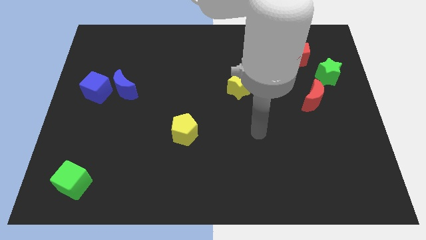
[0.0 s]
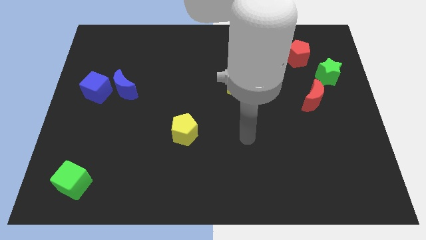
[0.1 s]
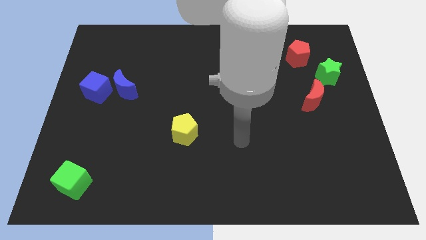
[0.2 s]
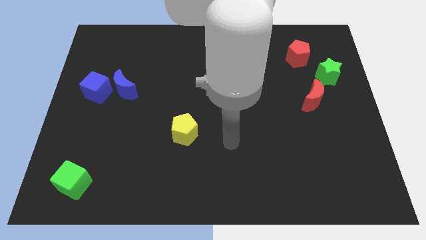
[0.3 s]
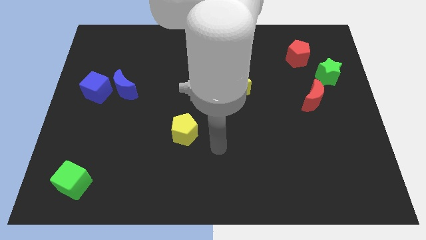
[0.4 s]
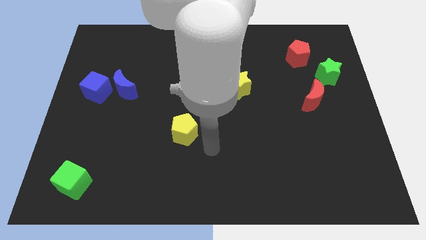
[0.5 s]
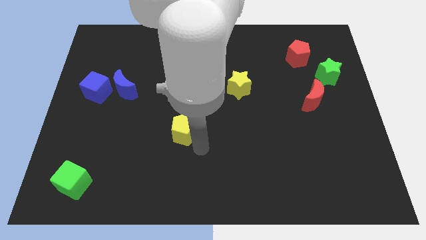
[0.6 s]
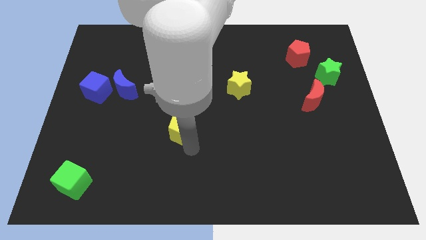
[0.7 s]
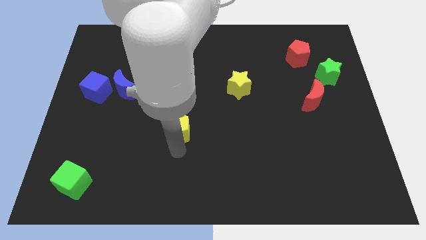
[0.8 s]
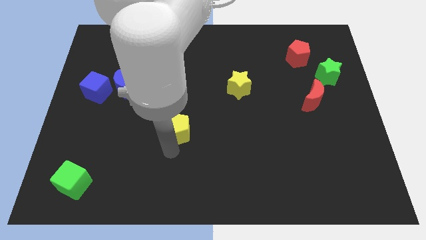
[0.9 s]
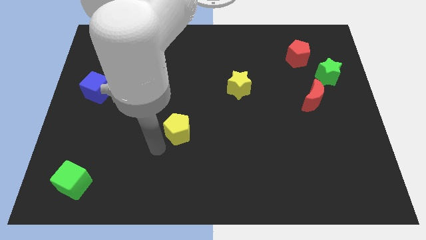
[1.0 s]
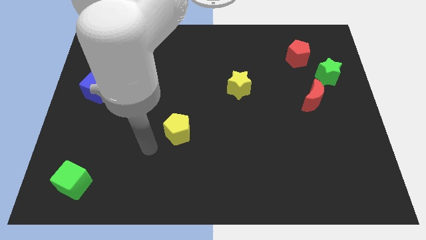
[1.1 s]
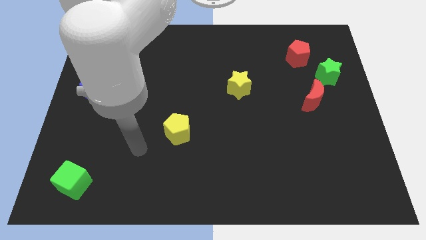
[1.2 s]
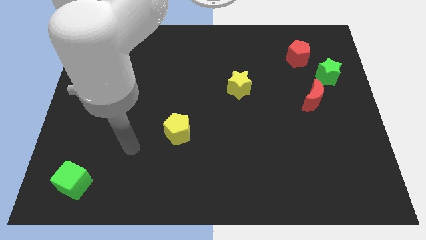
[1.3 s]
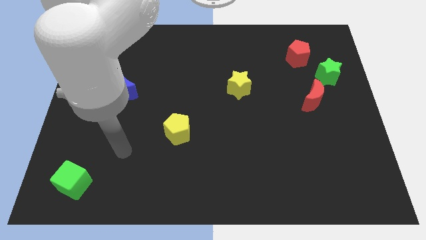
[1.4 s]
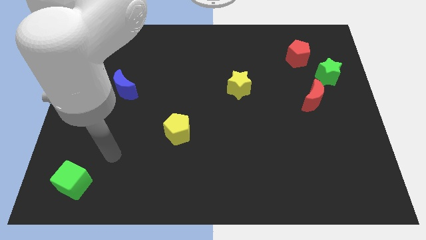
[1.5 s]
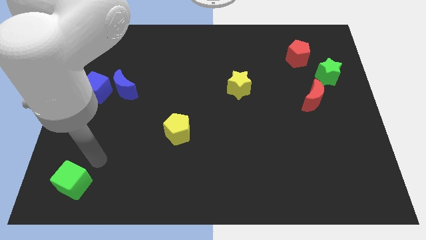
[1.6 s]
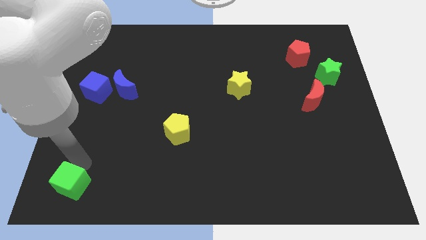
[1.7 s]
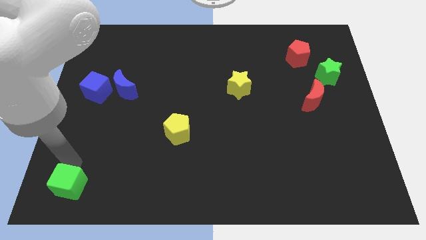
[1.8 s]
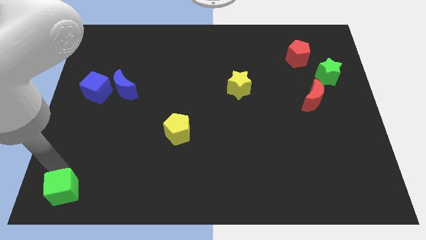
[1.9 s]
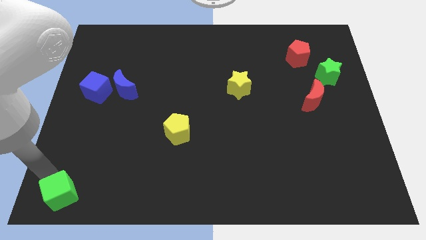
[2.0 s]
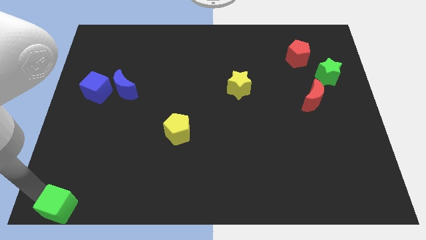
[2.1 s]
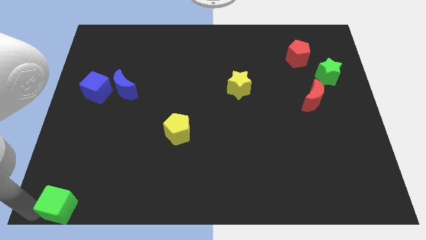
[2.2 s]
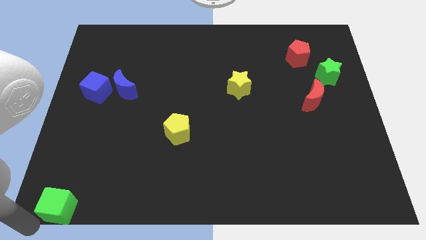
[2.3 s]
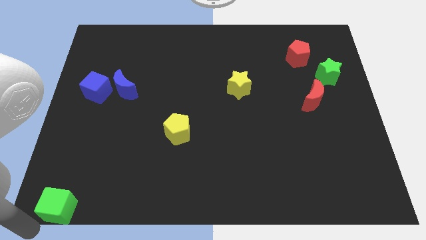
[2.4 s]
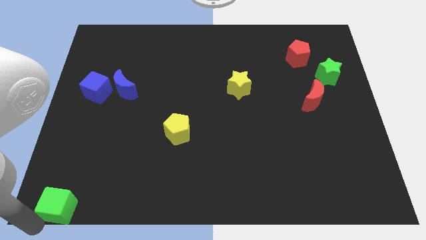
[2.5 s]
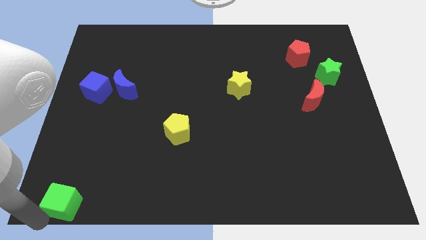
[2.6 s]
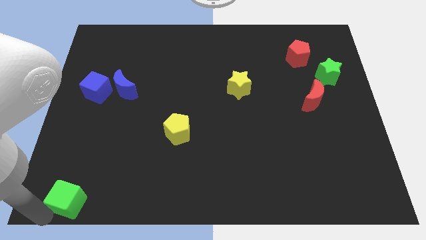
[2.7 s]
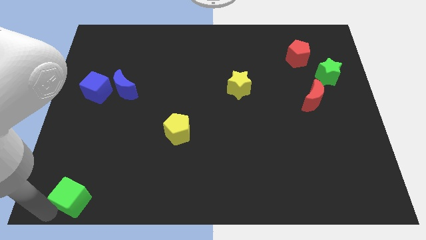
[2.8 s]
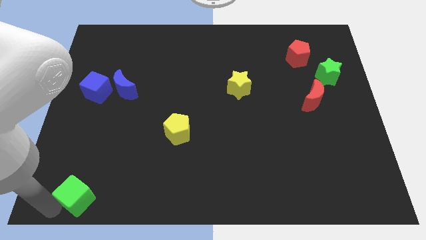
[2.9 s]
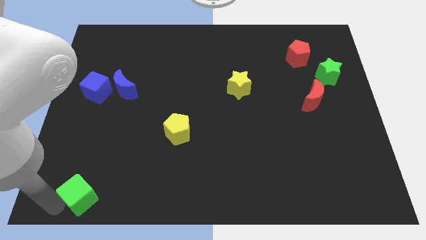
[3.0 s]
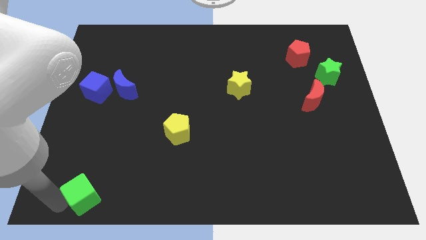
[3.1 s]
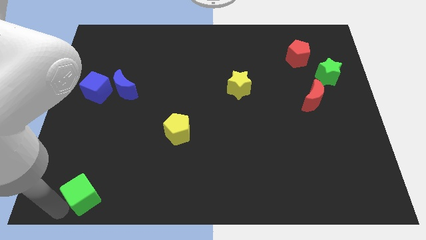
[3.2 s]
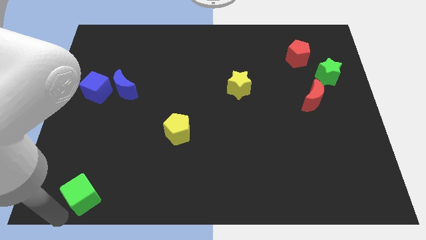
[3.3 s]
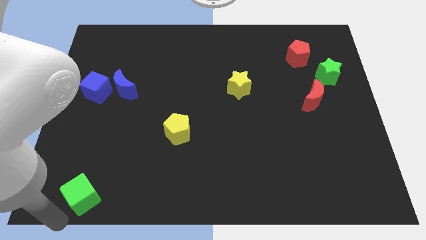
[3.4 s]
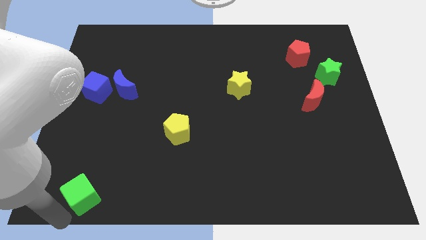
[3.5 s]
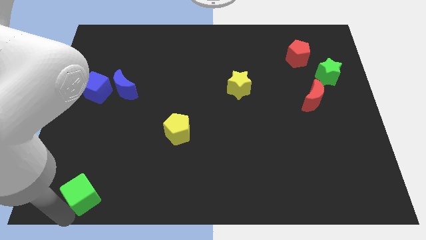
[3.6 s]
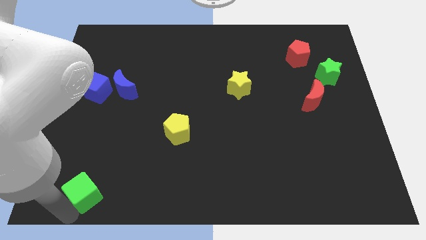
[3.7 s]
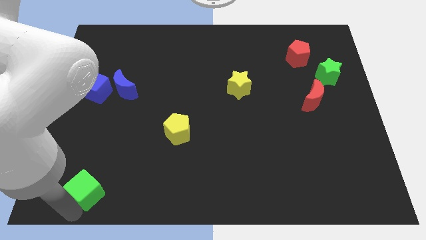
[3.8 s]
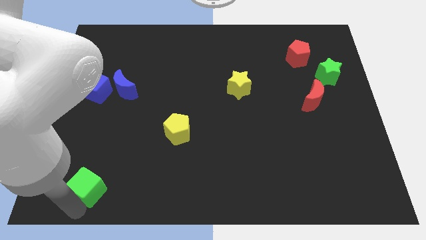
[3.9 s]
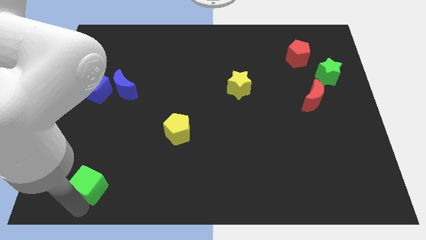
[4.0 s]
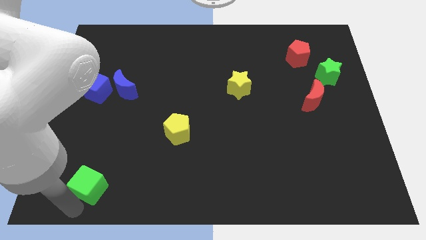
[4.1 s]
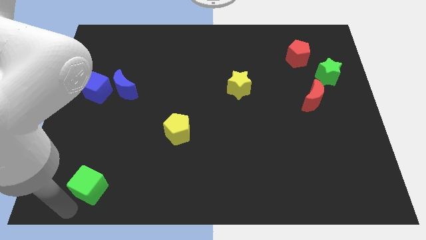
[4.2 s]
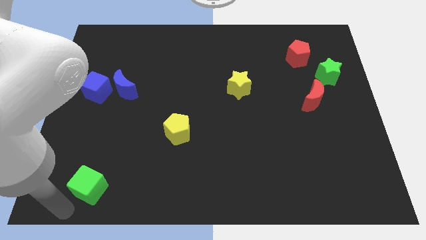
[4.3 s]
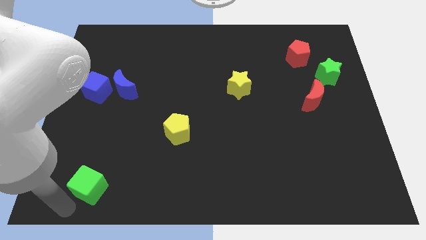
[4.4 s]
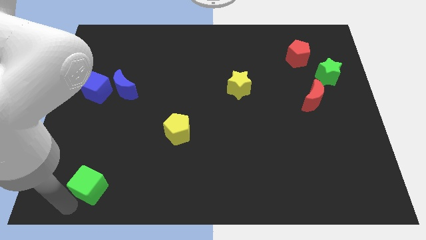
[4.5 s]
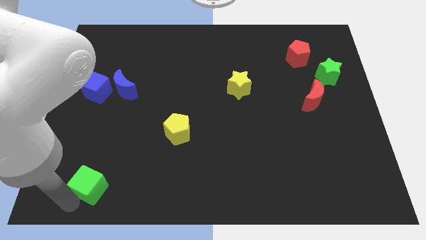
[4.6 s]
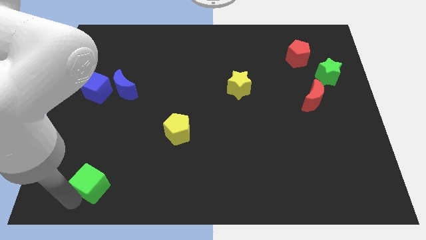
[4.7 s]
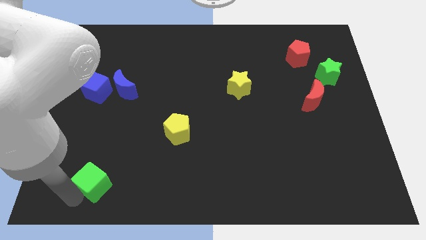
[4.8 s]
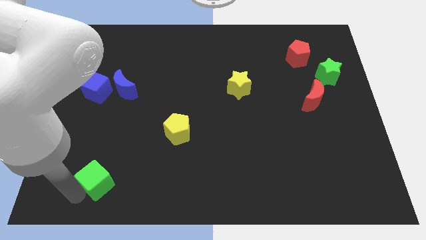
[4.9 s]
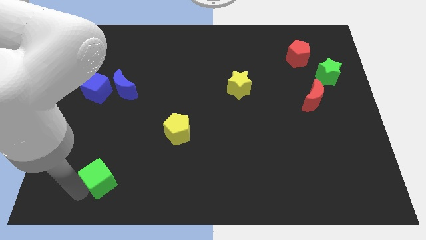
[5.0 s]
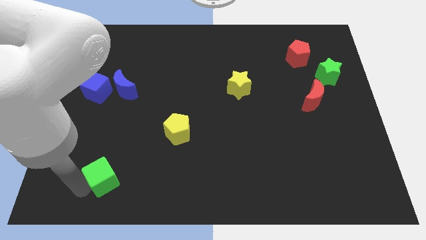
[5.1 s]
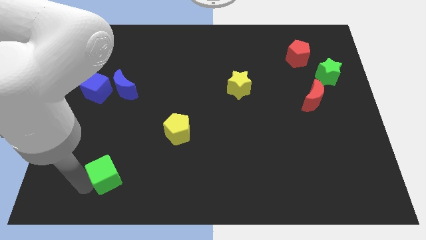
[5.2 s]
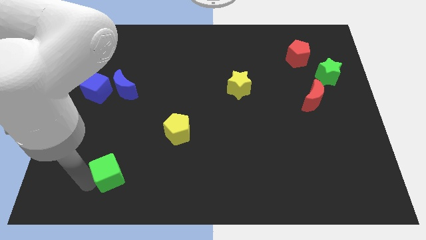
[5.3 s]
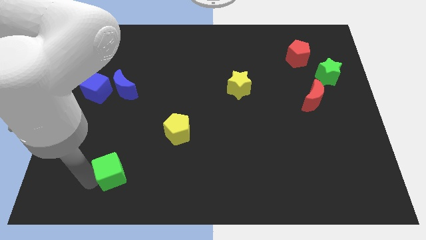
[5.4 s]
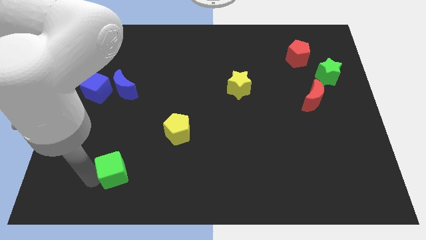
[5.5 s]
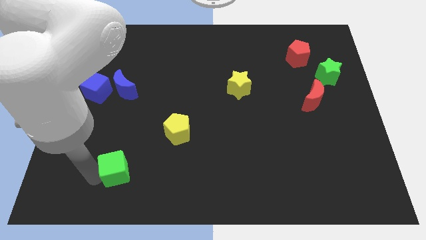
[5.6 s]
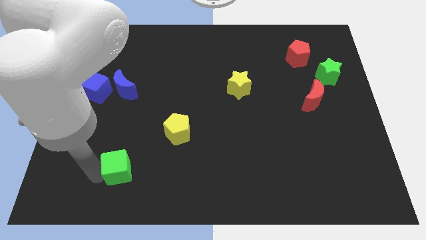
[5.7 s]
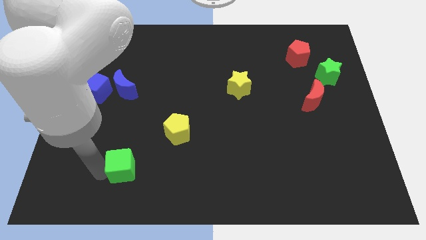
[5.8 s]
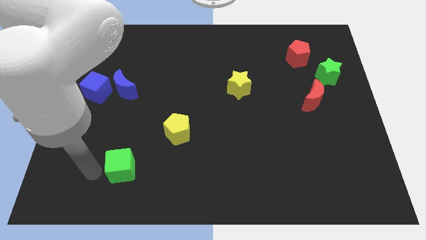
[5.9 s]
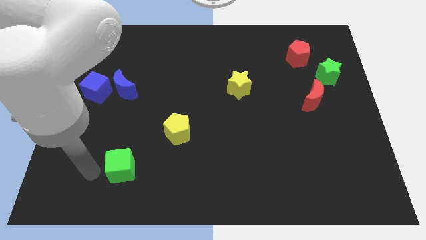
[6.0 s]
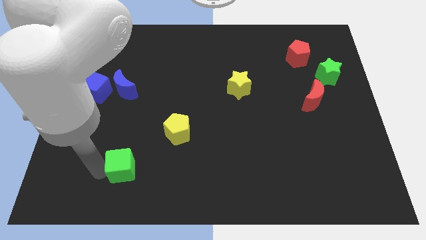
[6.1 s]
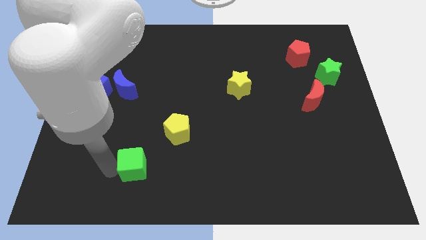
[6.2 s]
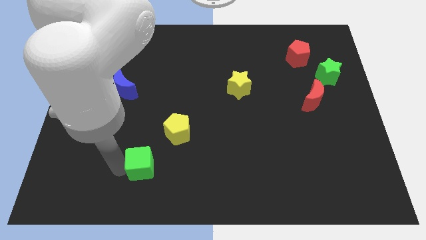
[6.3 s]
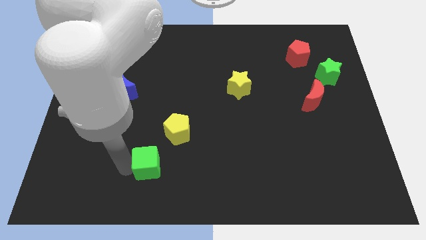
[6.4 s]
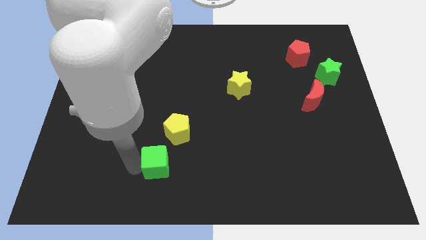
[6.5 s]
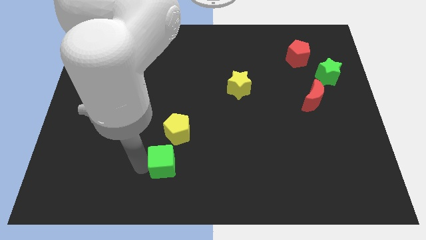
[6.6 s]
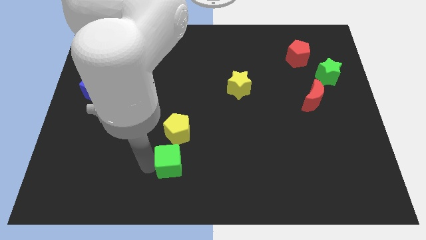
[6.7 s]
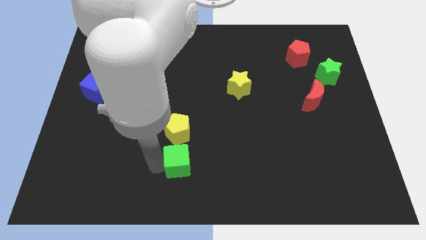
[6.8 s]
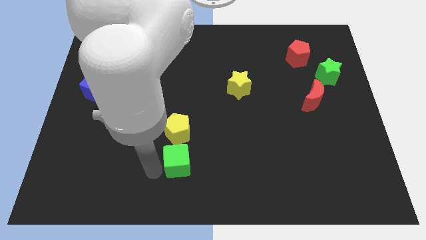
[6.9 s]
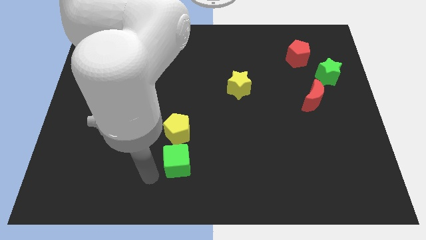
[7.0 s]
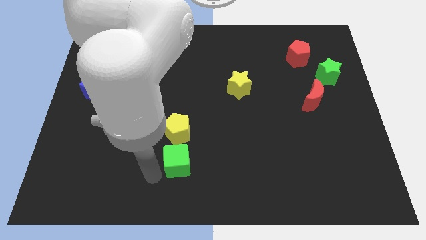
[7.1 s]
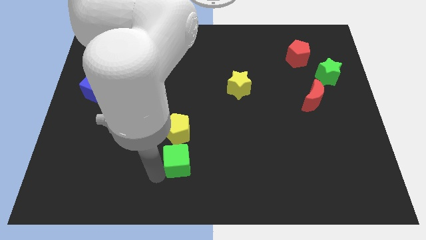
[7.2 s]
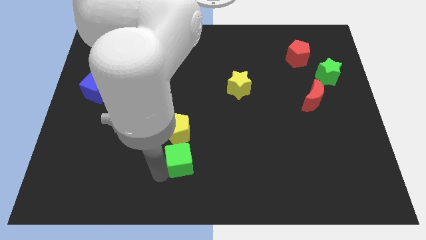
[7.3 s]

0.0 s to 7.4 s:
push the green cube to the bottom right side of the yellow pentagon
